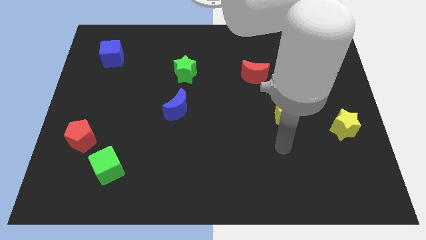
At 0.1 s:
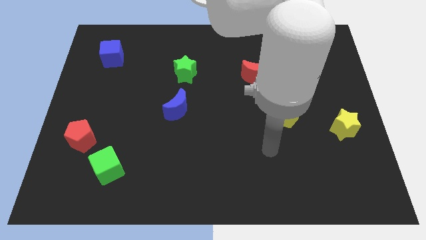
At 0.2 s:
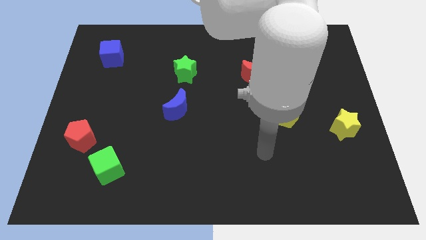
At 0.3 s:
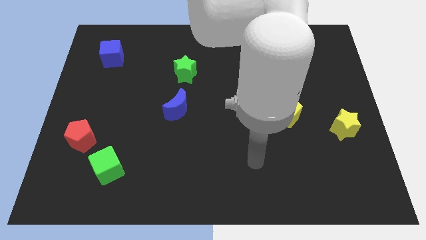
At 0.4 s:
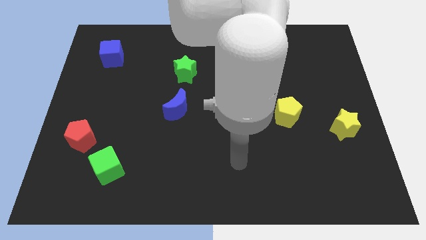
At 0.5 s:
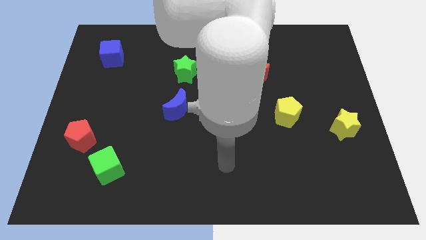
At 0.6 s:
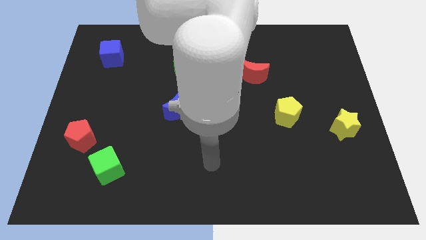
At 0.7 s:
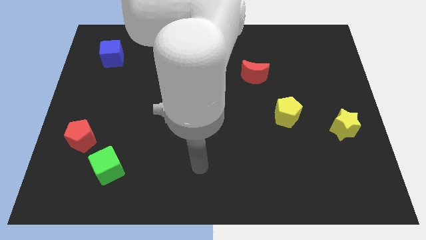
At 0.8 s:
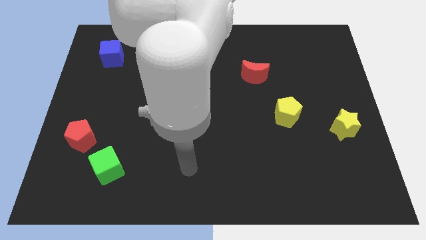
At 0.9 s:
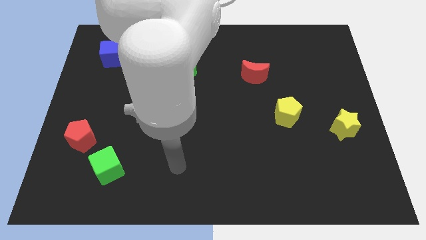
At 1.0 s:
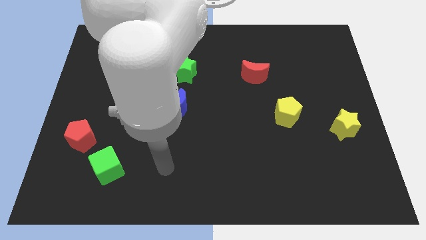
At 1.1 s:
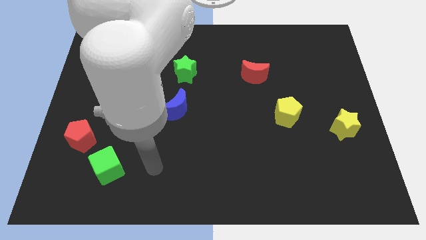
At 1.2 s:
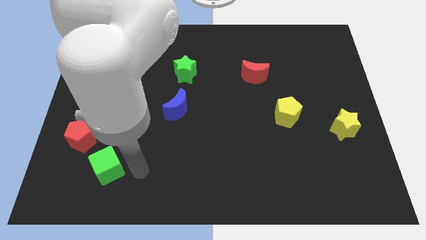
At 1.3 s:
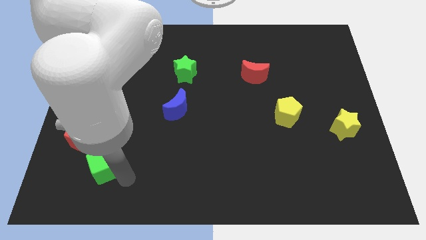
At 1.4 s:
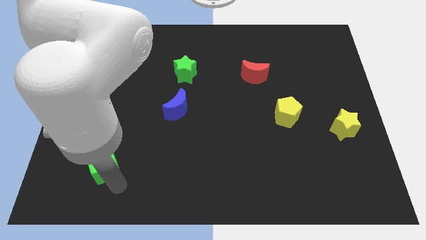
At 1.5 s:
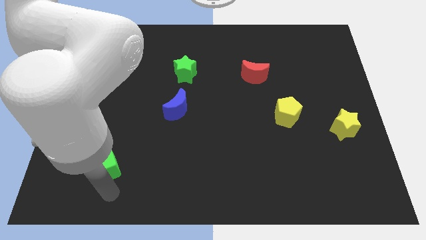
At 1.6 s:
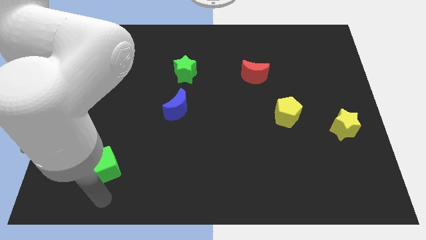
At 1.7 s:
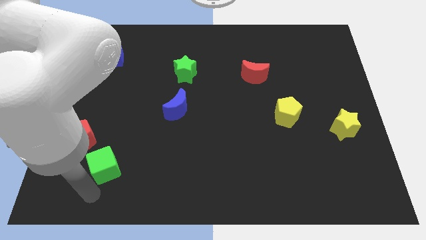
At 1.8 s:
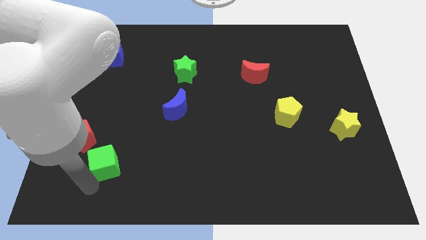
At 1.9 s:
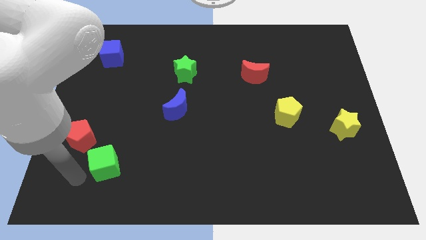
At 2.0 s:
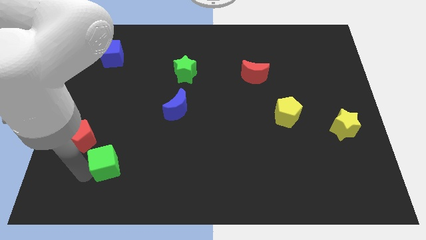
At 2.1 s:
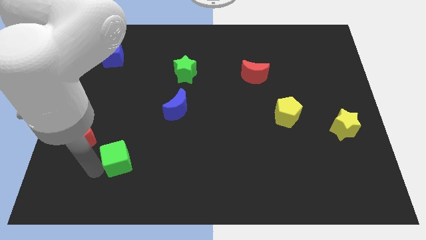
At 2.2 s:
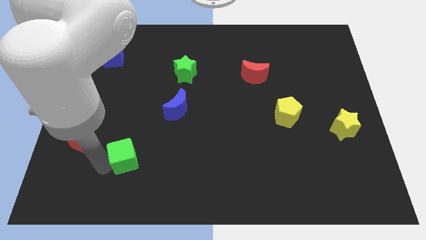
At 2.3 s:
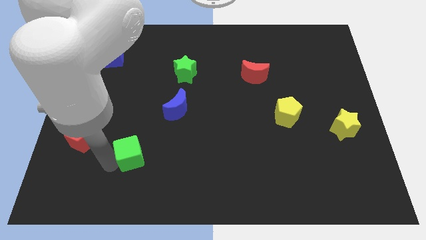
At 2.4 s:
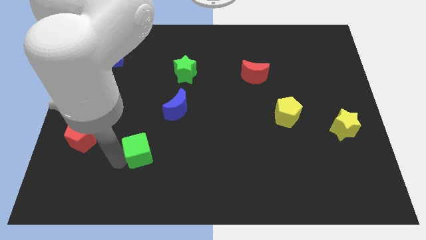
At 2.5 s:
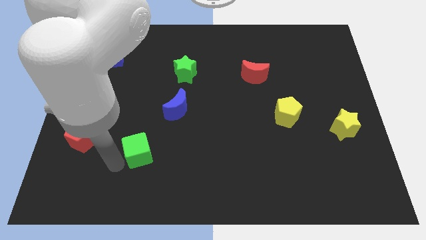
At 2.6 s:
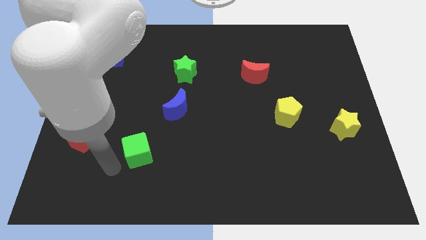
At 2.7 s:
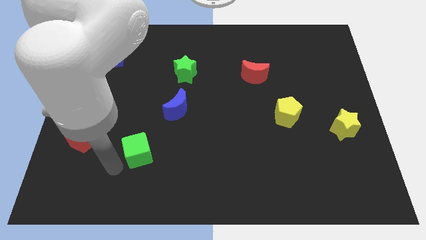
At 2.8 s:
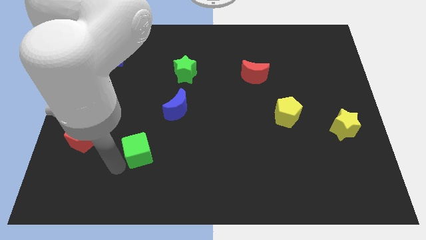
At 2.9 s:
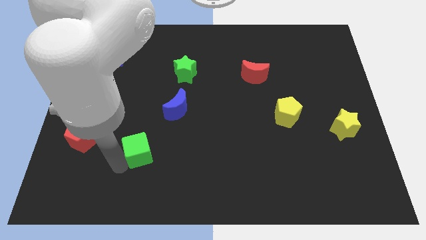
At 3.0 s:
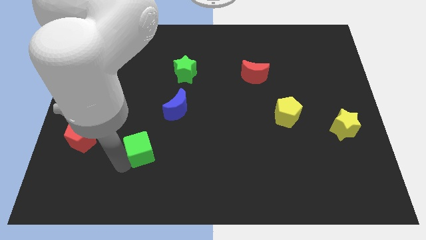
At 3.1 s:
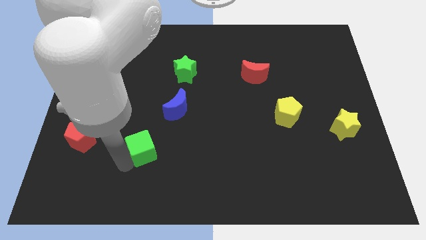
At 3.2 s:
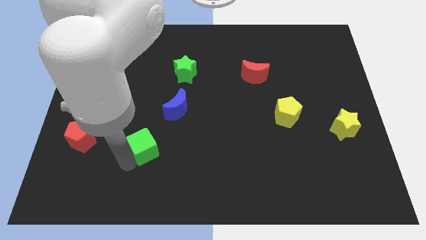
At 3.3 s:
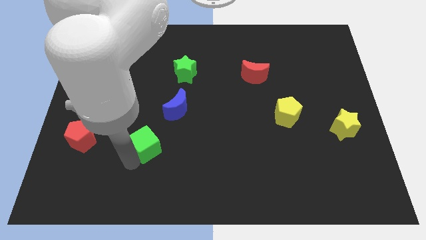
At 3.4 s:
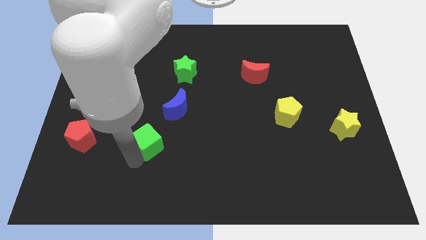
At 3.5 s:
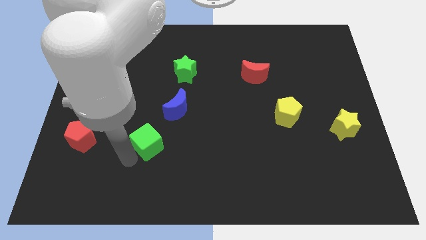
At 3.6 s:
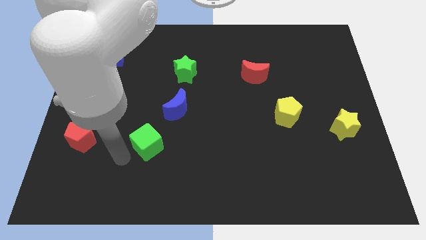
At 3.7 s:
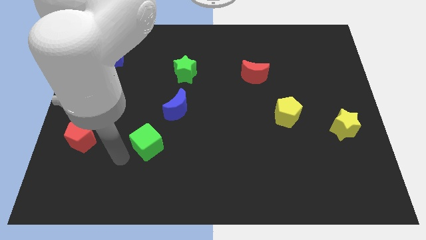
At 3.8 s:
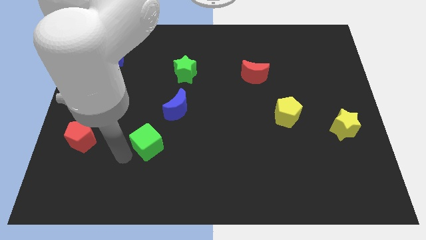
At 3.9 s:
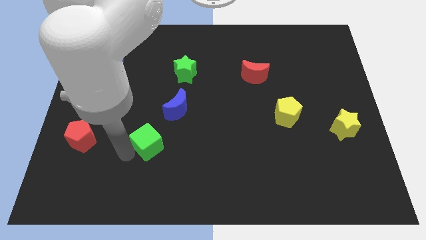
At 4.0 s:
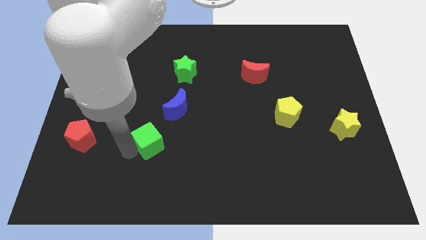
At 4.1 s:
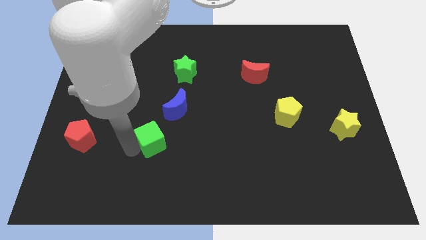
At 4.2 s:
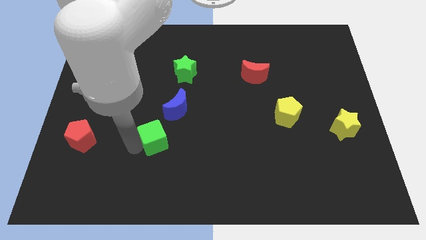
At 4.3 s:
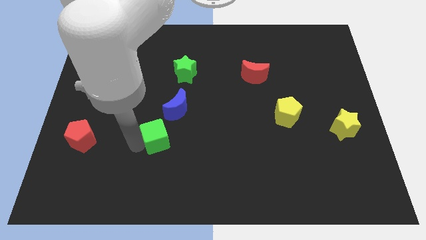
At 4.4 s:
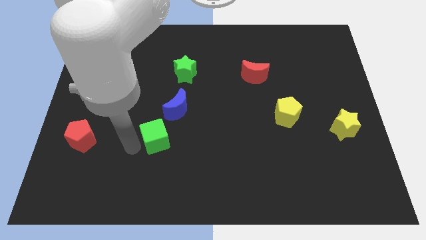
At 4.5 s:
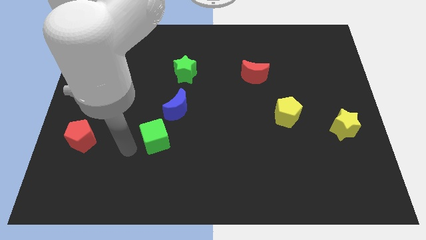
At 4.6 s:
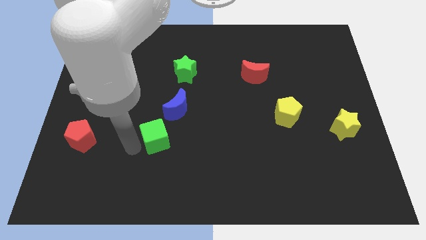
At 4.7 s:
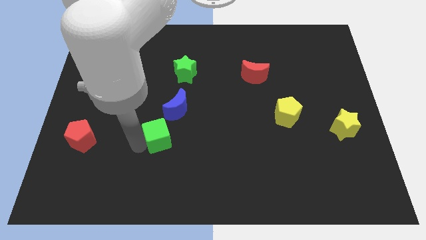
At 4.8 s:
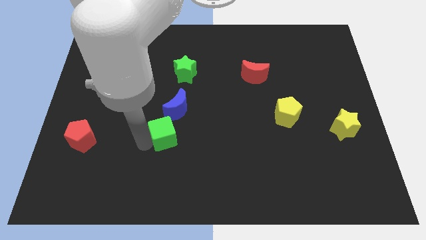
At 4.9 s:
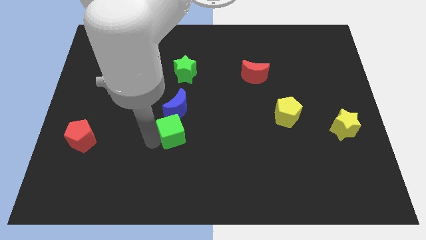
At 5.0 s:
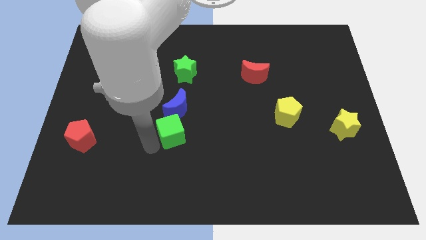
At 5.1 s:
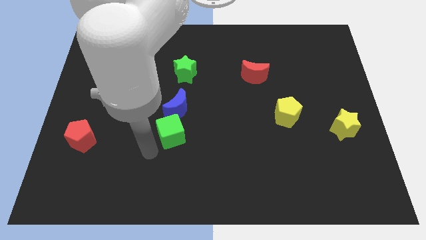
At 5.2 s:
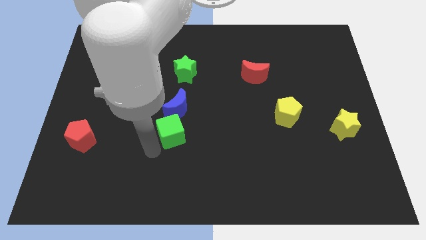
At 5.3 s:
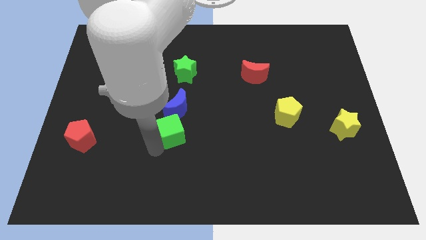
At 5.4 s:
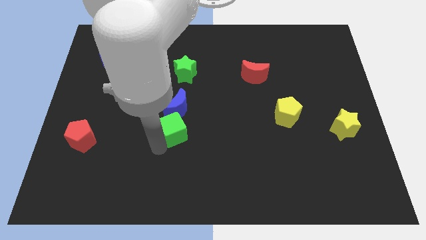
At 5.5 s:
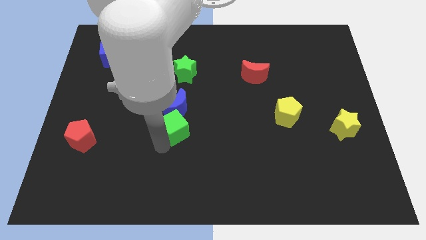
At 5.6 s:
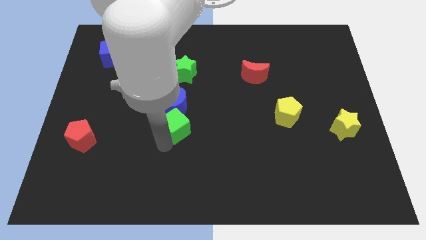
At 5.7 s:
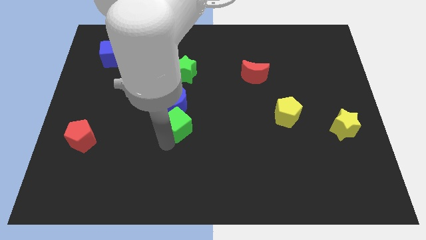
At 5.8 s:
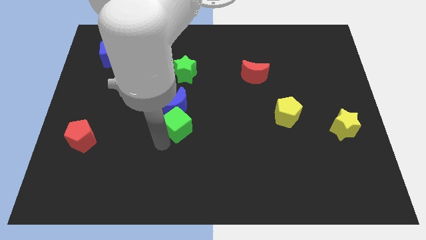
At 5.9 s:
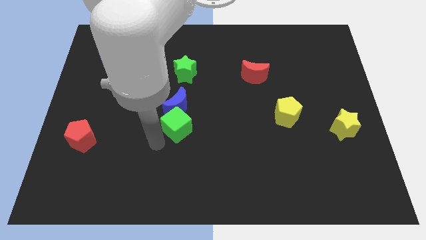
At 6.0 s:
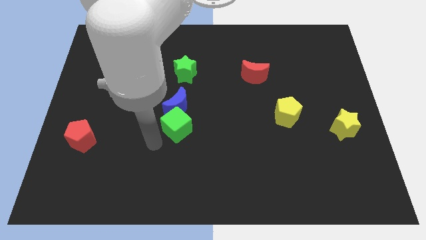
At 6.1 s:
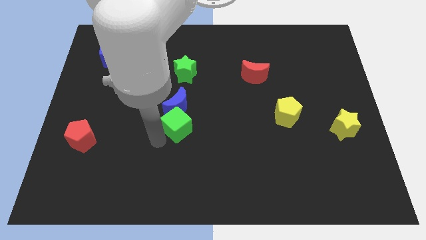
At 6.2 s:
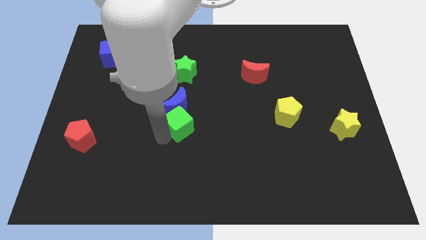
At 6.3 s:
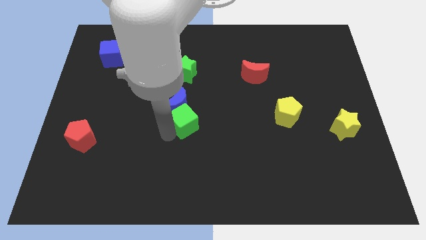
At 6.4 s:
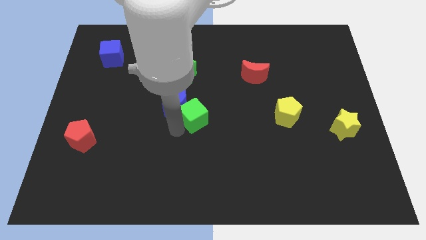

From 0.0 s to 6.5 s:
push the green cube upwards and to the right

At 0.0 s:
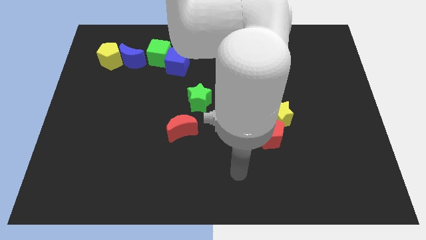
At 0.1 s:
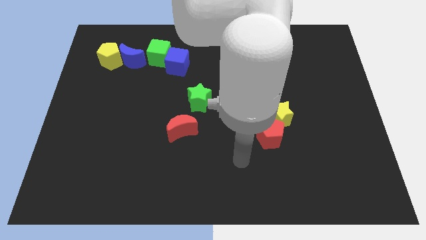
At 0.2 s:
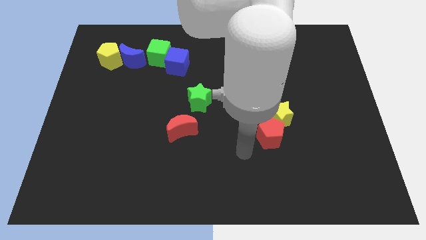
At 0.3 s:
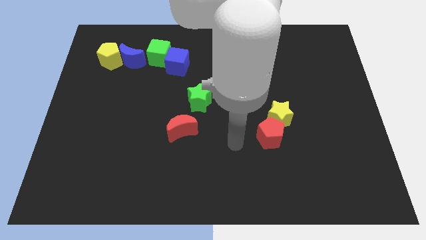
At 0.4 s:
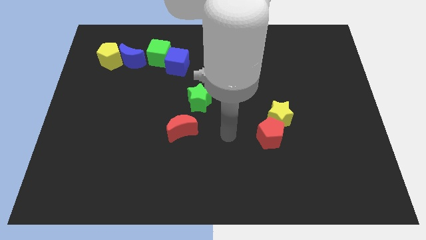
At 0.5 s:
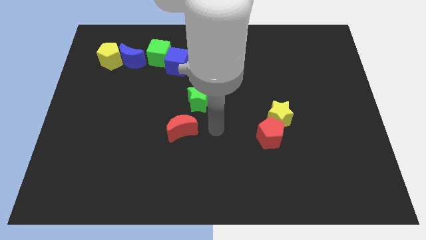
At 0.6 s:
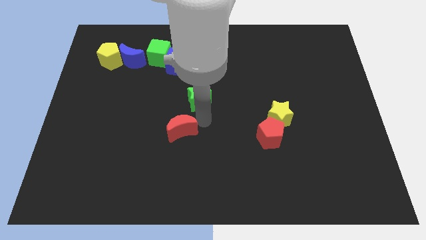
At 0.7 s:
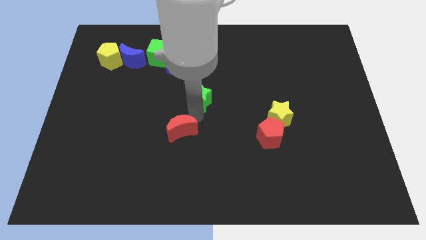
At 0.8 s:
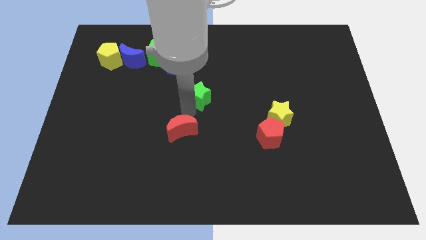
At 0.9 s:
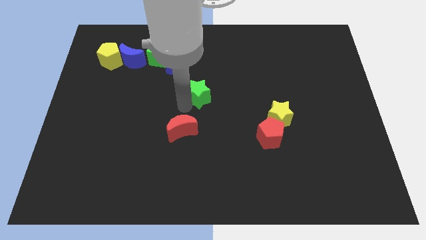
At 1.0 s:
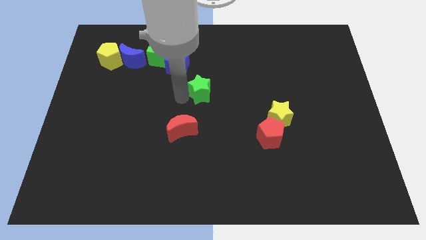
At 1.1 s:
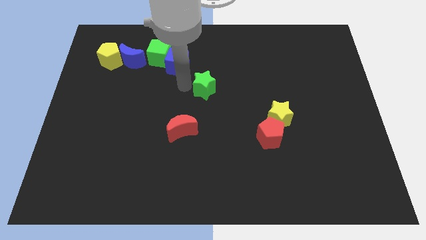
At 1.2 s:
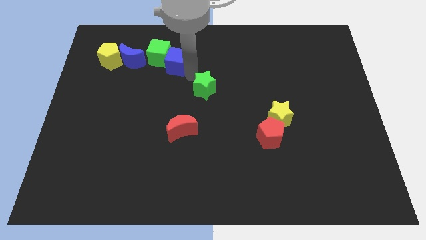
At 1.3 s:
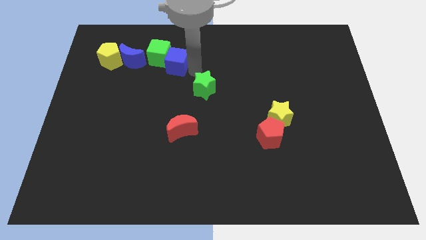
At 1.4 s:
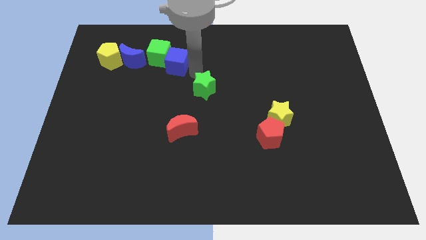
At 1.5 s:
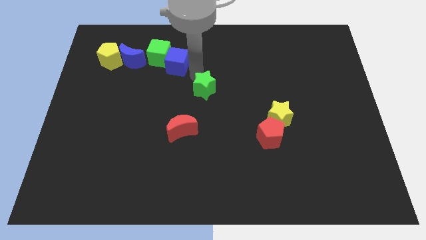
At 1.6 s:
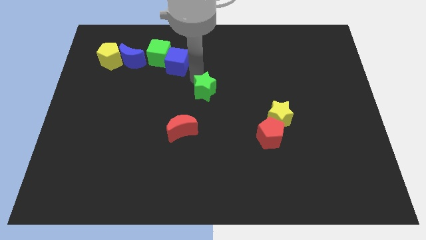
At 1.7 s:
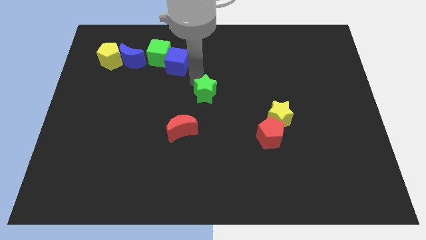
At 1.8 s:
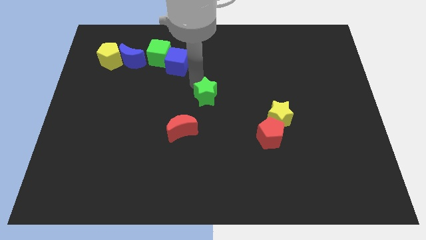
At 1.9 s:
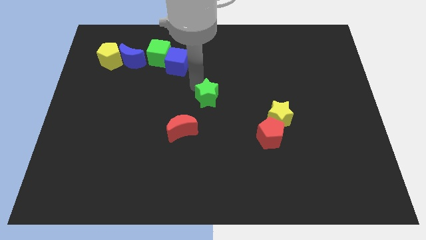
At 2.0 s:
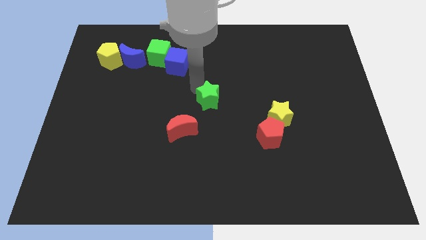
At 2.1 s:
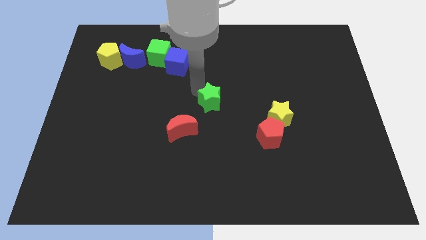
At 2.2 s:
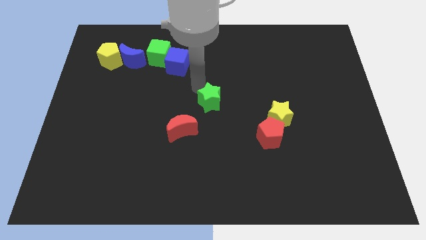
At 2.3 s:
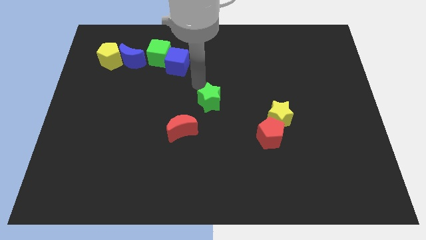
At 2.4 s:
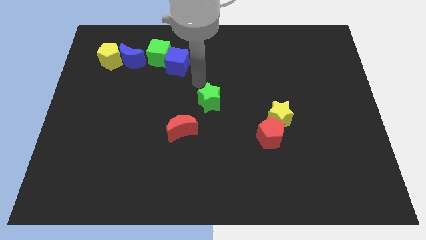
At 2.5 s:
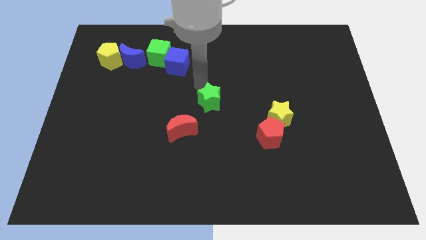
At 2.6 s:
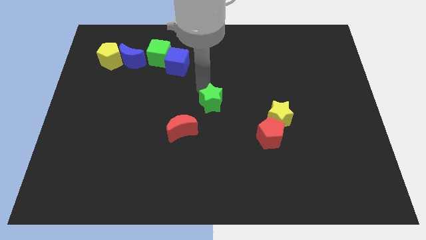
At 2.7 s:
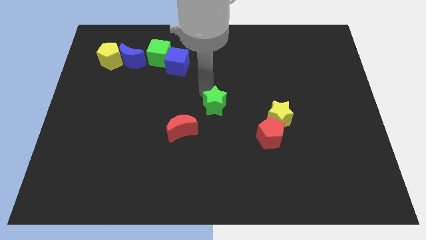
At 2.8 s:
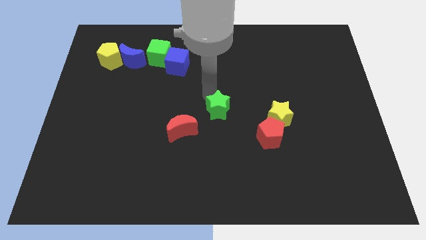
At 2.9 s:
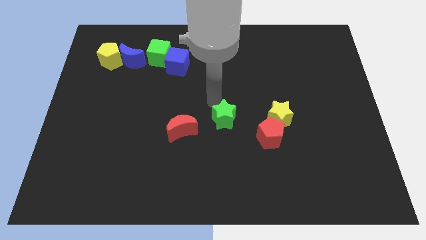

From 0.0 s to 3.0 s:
slightly push the green star diagonally down and right
